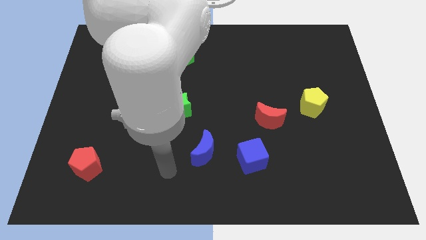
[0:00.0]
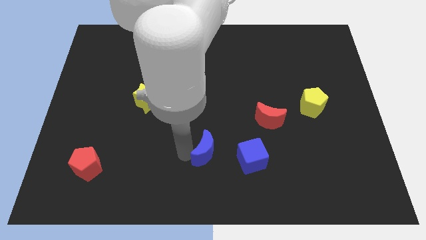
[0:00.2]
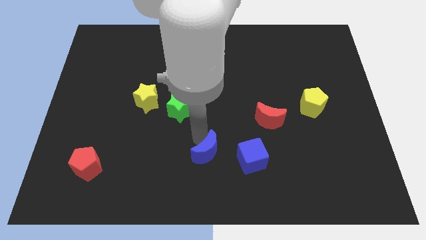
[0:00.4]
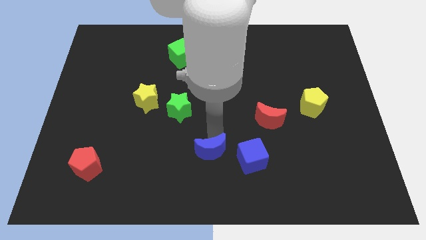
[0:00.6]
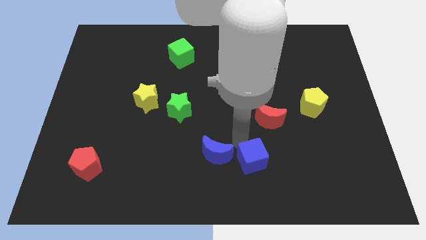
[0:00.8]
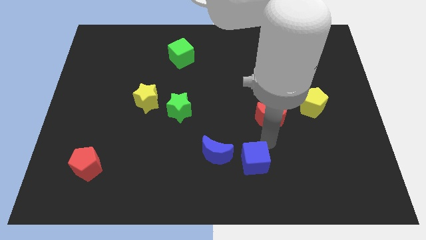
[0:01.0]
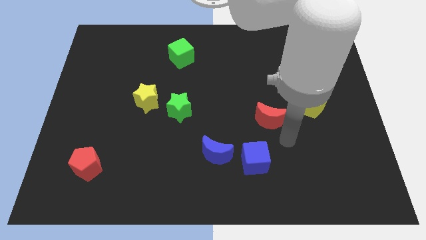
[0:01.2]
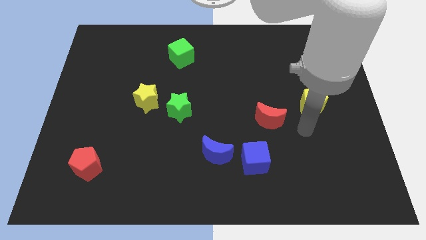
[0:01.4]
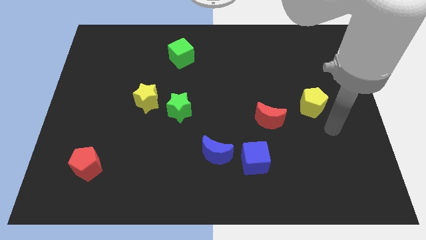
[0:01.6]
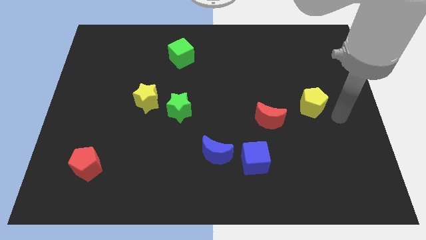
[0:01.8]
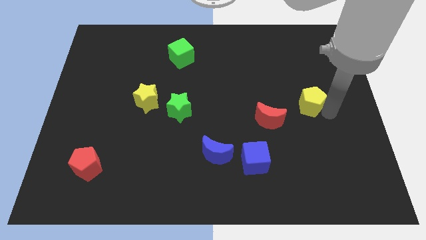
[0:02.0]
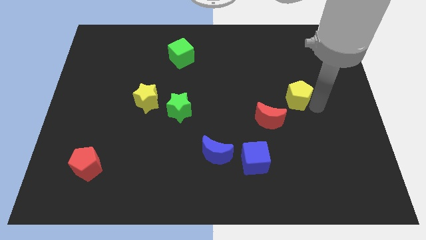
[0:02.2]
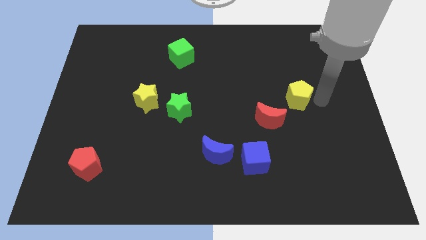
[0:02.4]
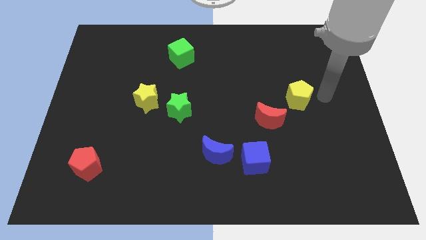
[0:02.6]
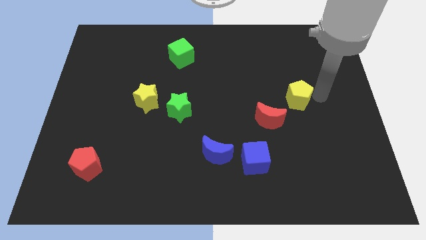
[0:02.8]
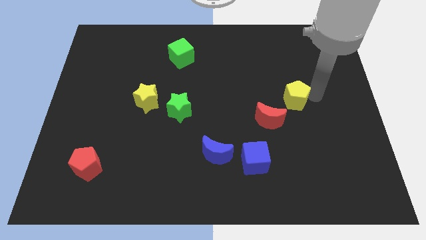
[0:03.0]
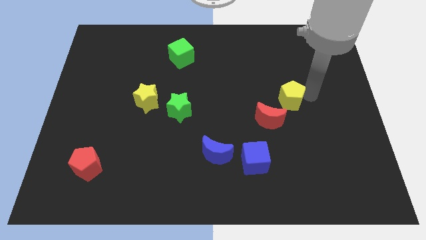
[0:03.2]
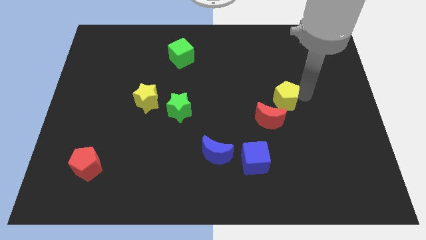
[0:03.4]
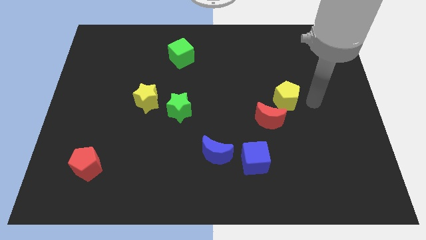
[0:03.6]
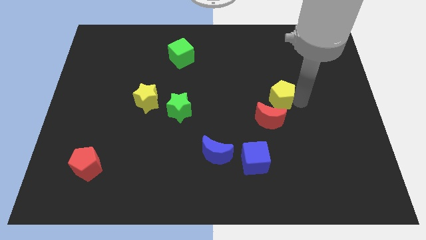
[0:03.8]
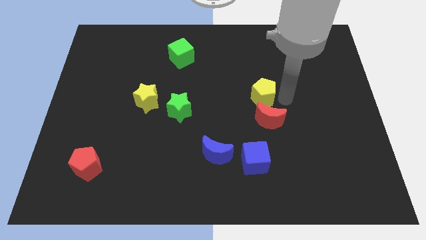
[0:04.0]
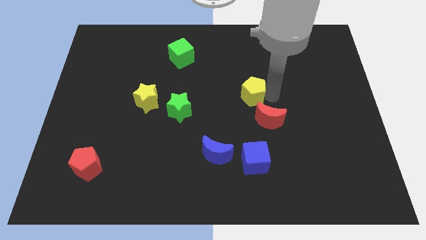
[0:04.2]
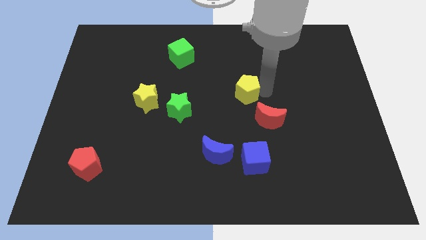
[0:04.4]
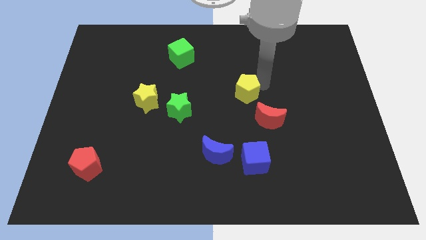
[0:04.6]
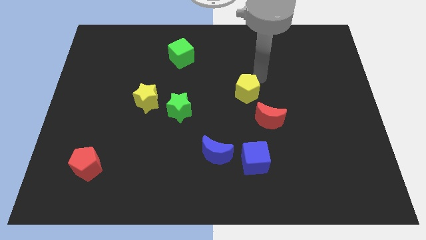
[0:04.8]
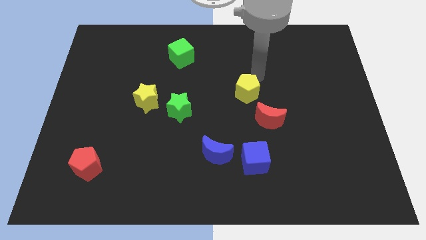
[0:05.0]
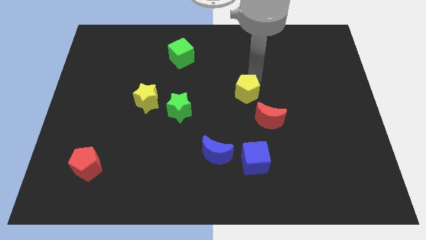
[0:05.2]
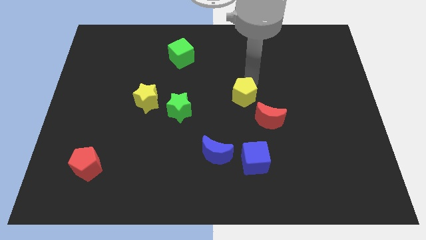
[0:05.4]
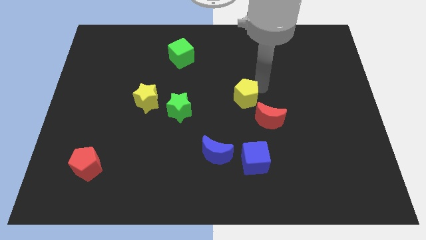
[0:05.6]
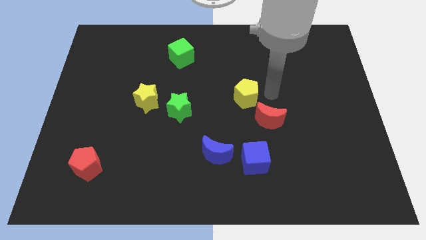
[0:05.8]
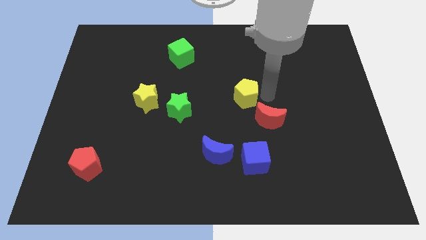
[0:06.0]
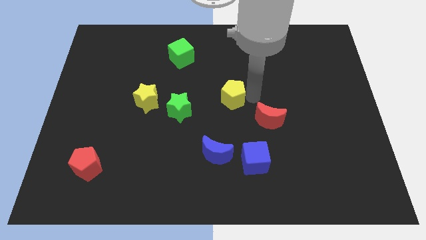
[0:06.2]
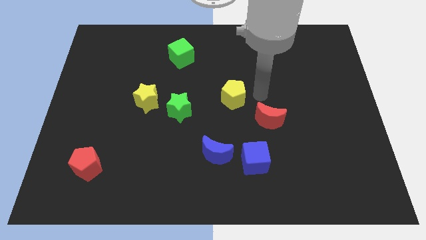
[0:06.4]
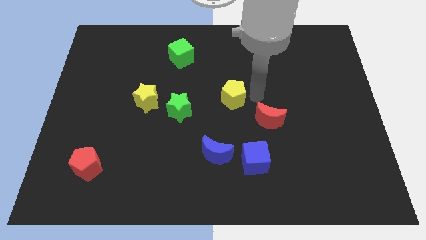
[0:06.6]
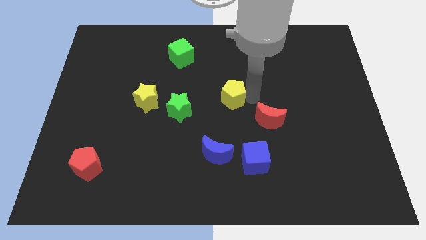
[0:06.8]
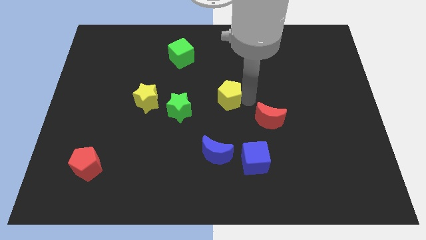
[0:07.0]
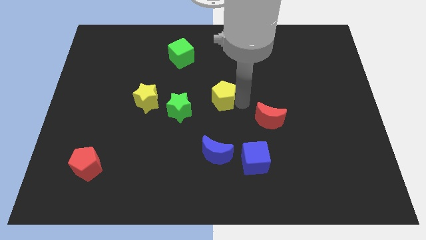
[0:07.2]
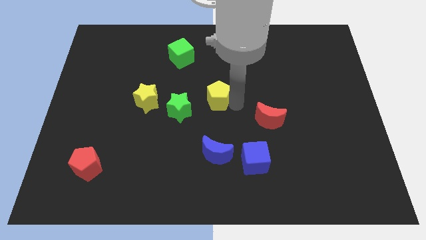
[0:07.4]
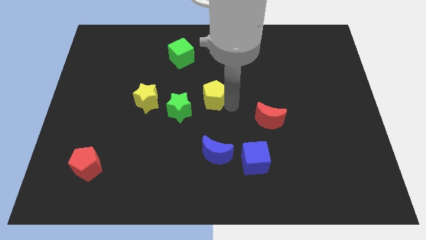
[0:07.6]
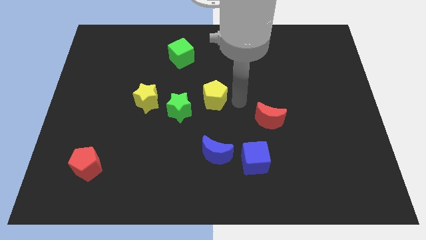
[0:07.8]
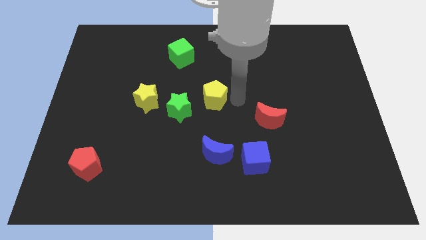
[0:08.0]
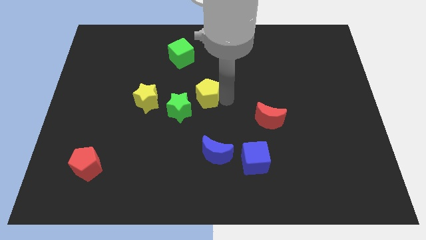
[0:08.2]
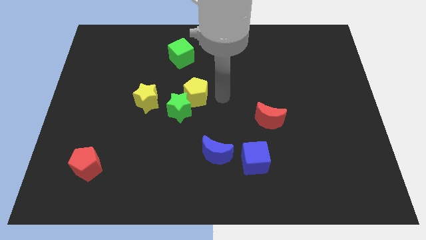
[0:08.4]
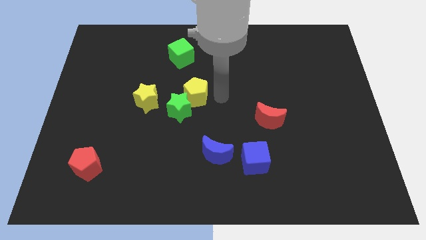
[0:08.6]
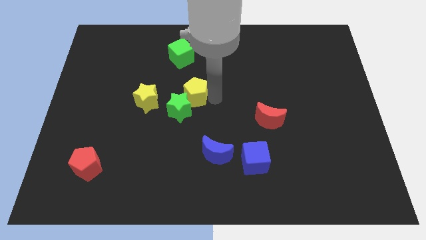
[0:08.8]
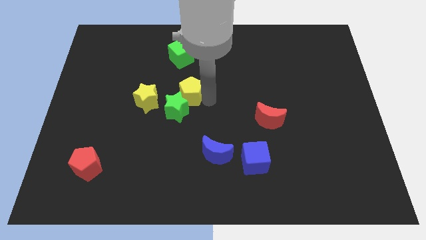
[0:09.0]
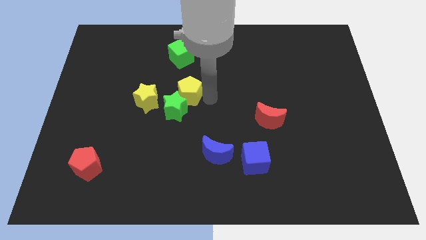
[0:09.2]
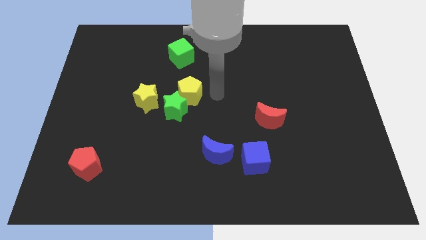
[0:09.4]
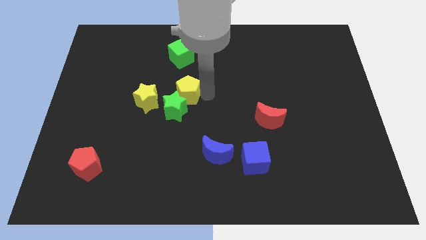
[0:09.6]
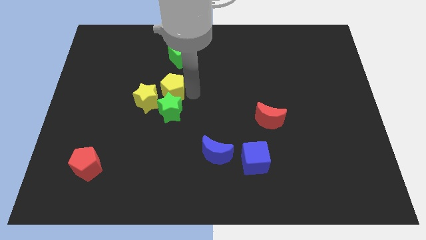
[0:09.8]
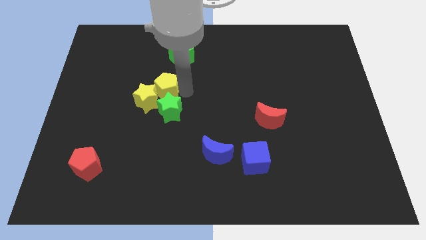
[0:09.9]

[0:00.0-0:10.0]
put the yellow pentagon to the yellow star

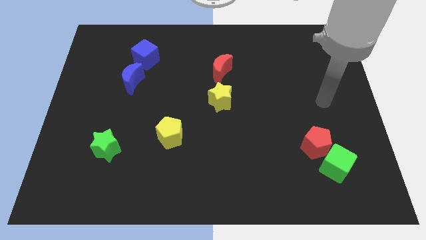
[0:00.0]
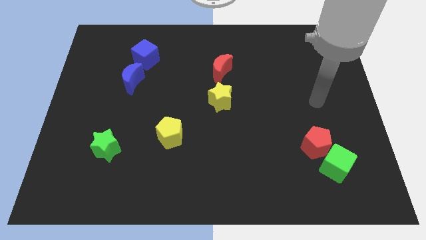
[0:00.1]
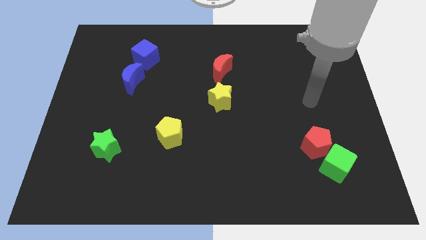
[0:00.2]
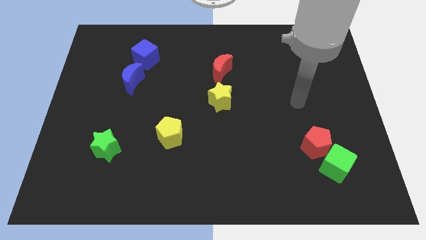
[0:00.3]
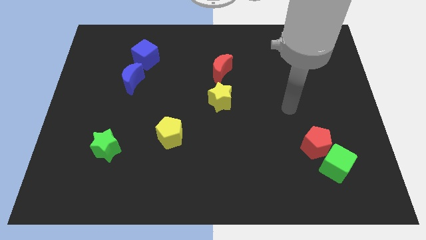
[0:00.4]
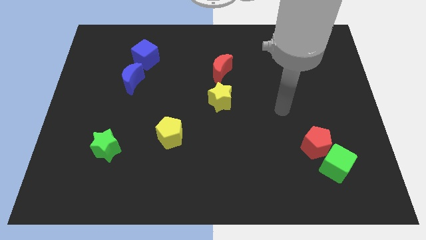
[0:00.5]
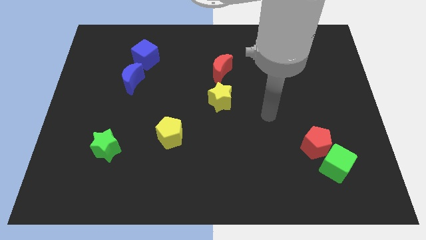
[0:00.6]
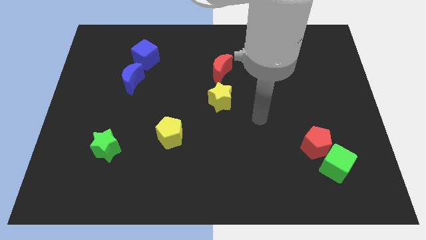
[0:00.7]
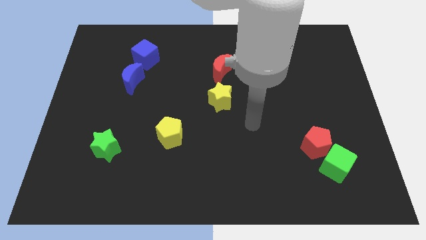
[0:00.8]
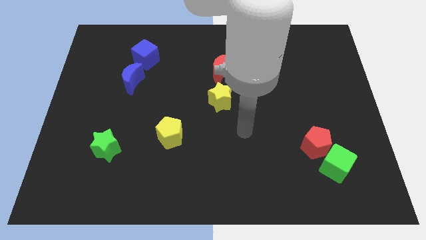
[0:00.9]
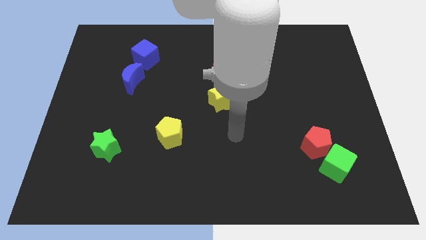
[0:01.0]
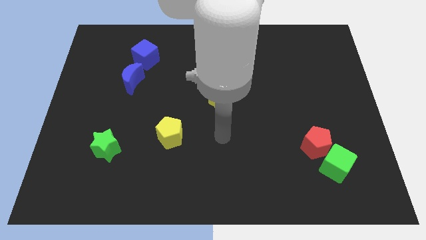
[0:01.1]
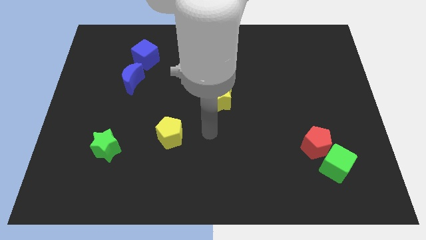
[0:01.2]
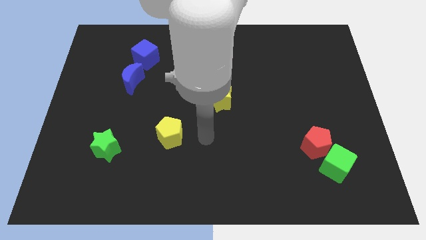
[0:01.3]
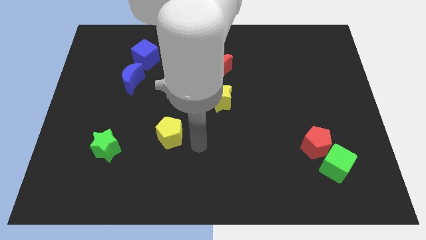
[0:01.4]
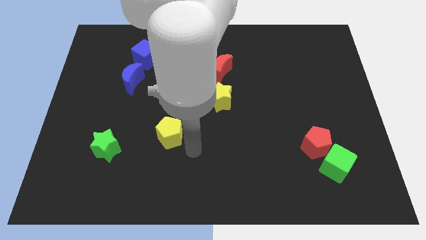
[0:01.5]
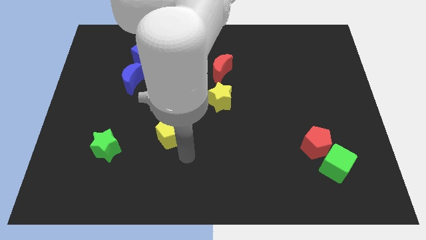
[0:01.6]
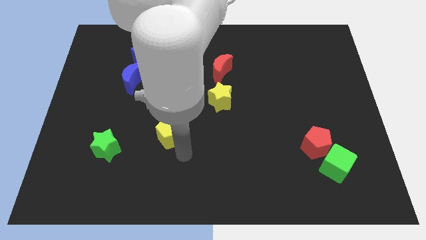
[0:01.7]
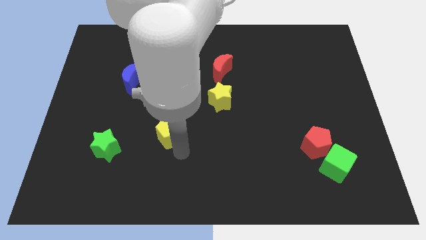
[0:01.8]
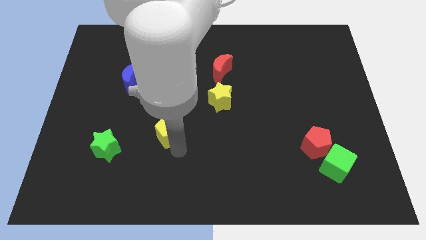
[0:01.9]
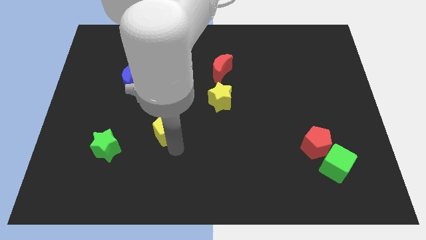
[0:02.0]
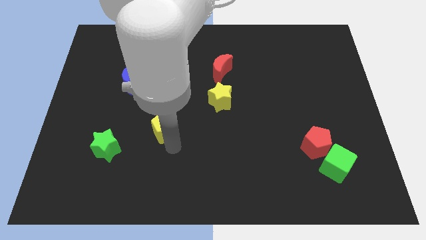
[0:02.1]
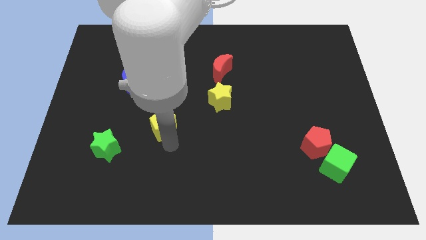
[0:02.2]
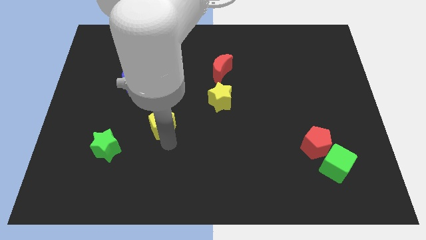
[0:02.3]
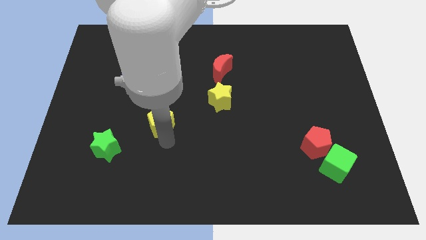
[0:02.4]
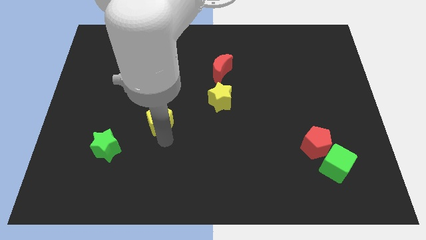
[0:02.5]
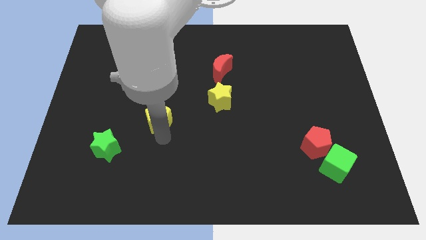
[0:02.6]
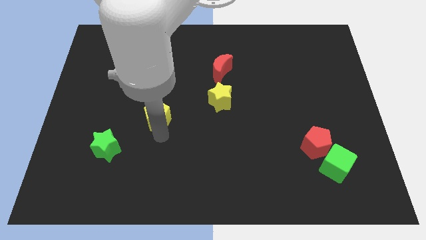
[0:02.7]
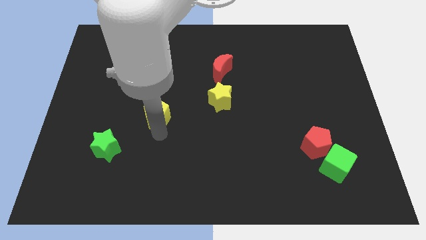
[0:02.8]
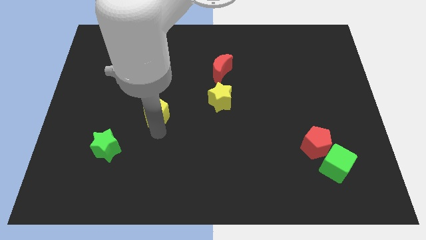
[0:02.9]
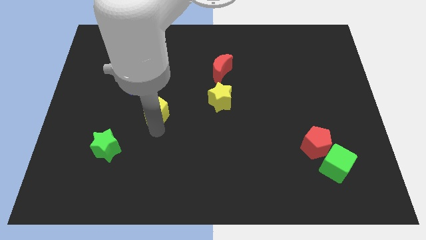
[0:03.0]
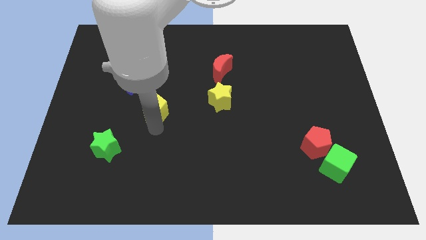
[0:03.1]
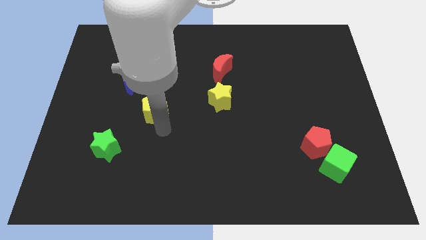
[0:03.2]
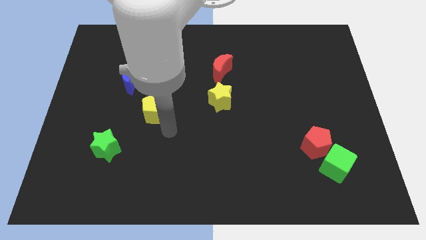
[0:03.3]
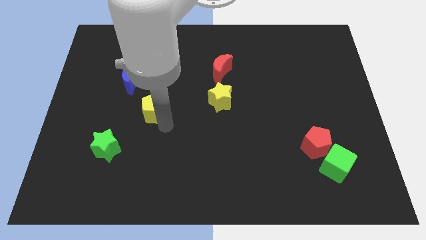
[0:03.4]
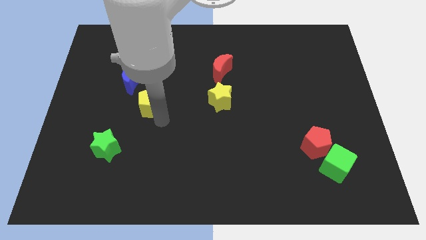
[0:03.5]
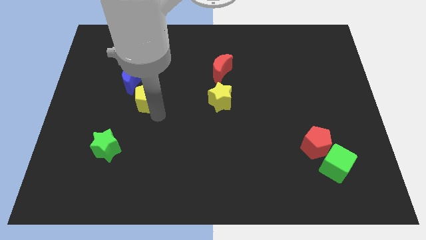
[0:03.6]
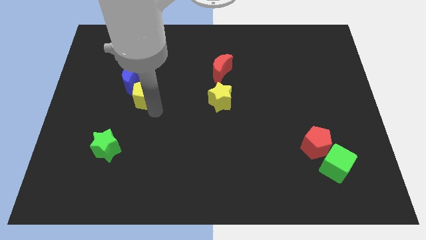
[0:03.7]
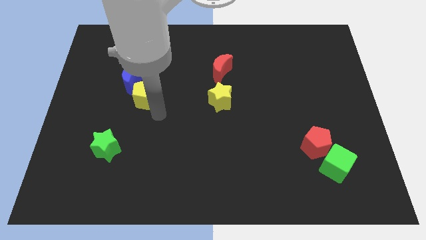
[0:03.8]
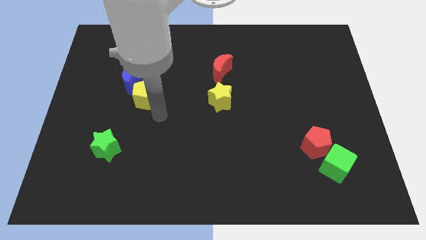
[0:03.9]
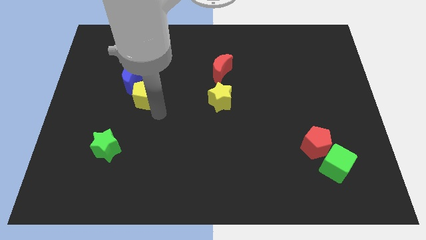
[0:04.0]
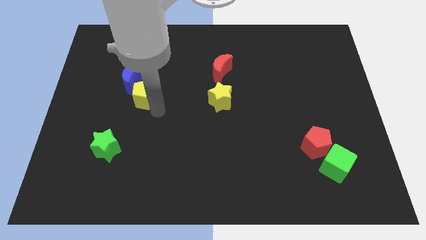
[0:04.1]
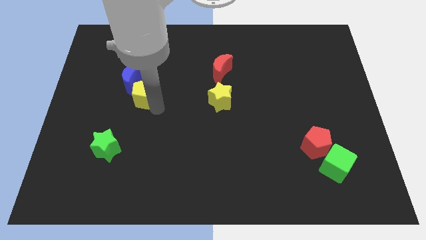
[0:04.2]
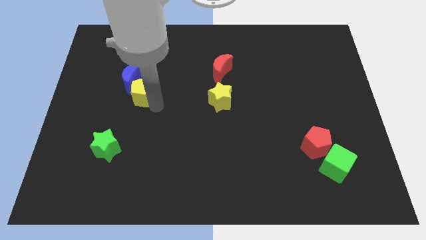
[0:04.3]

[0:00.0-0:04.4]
put the yellow pentagon towards the blue moon
